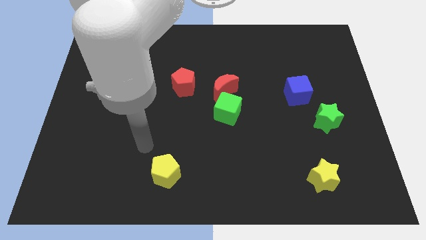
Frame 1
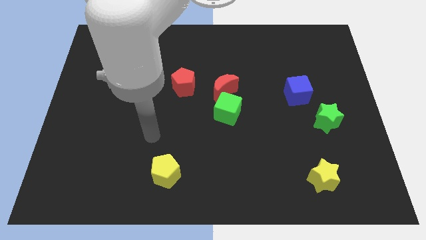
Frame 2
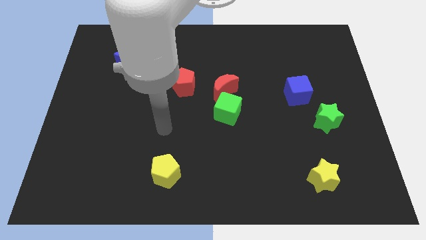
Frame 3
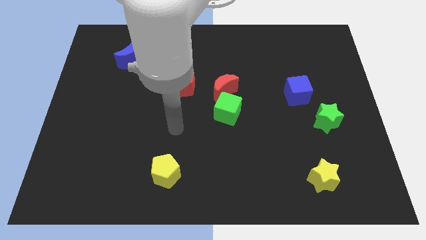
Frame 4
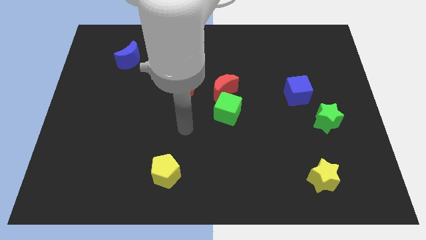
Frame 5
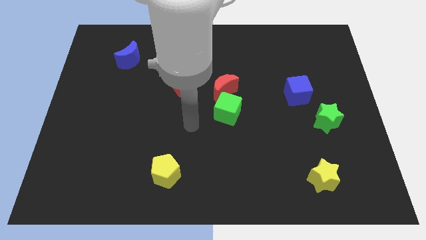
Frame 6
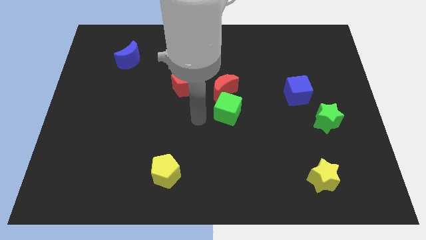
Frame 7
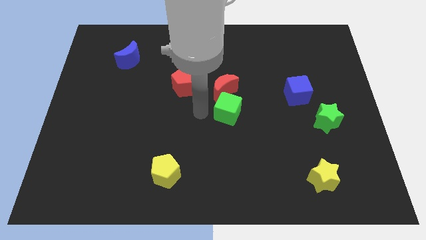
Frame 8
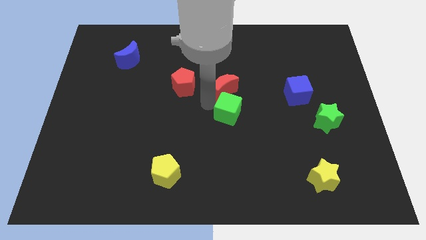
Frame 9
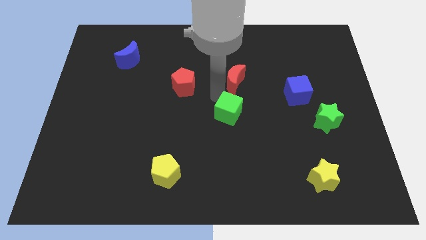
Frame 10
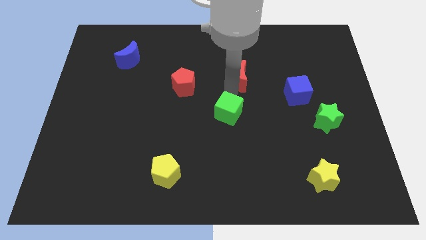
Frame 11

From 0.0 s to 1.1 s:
separate the green cube from the red moon

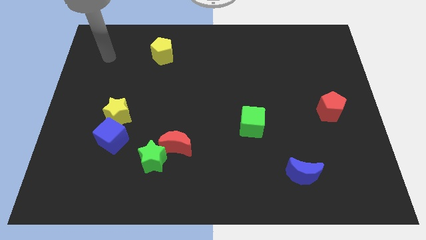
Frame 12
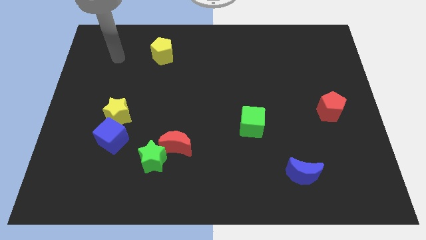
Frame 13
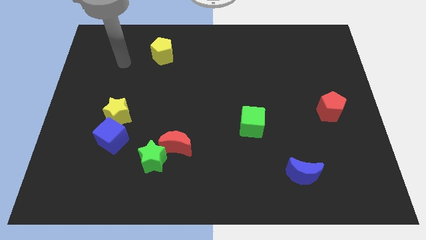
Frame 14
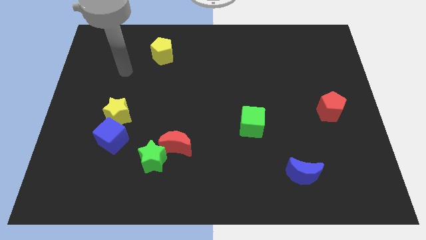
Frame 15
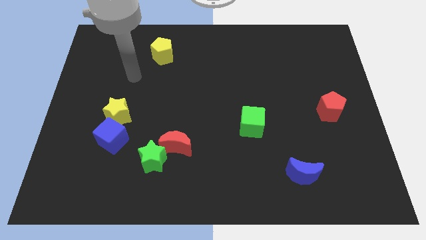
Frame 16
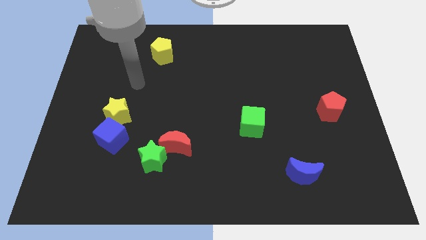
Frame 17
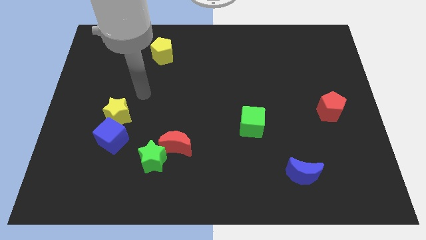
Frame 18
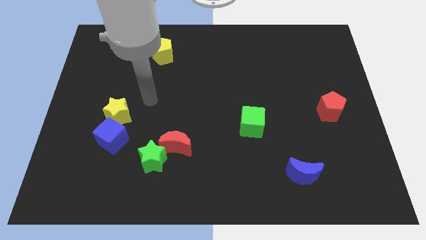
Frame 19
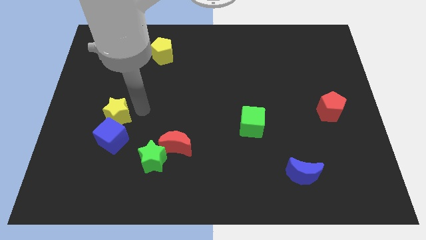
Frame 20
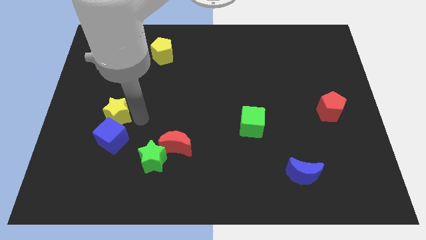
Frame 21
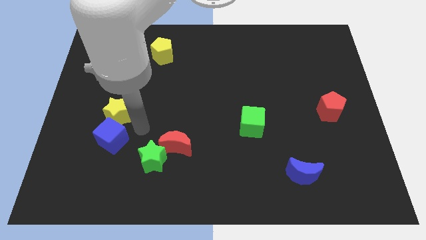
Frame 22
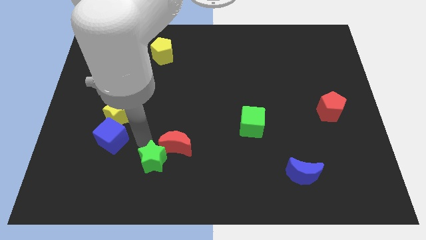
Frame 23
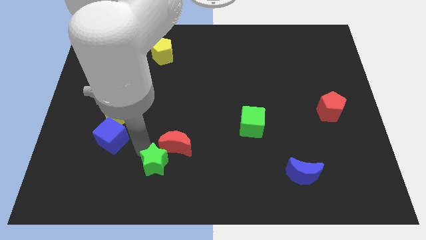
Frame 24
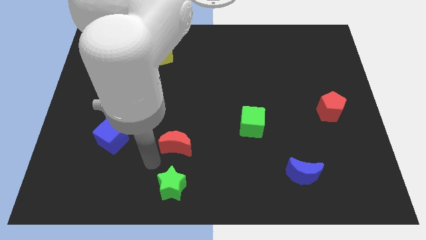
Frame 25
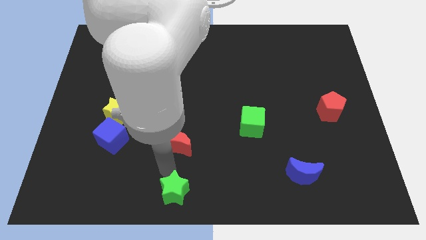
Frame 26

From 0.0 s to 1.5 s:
pull the red moon apart from the green star

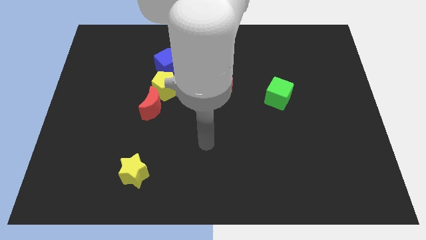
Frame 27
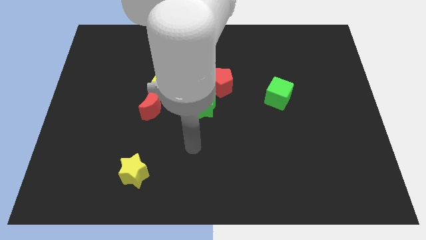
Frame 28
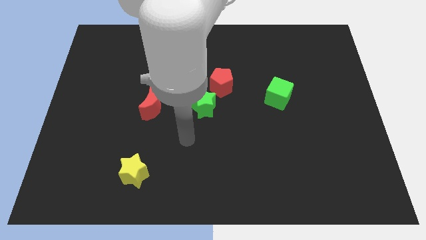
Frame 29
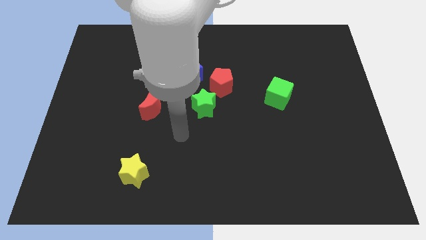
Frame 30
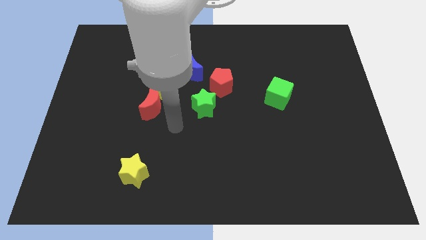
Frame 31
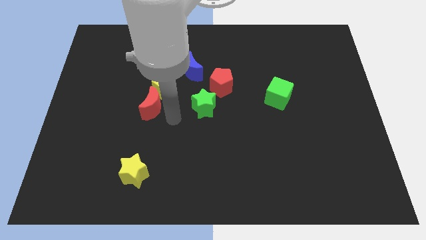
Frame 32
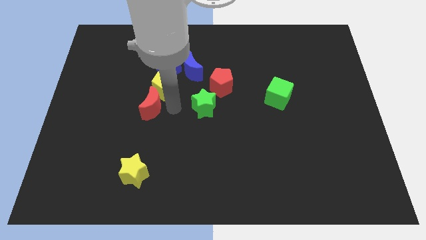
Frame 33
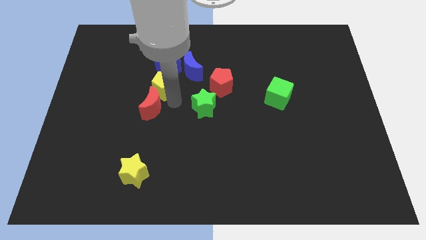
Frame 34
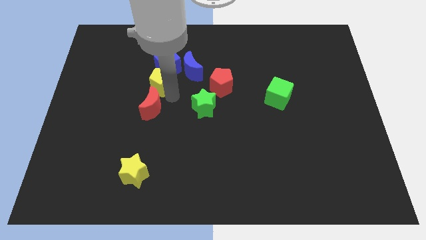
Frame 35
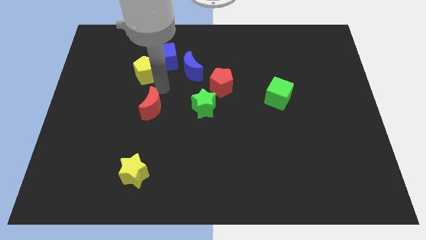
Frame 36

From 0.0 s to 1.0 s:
separate the red moon from the yellow pentagon

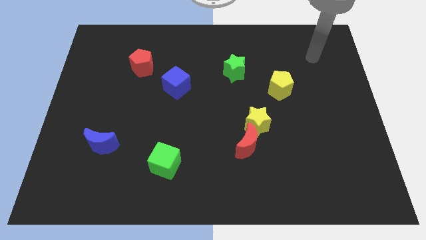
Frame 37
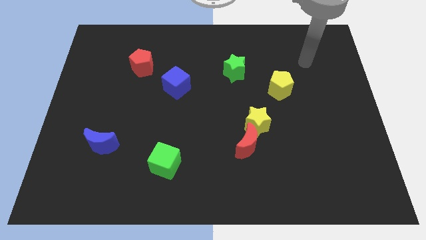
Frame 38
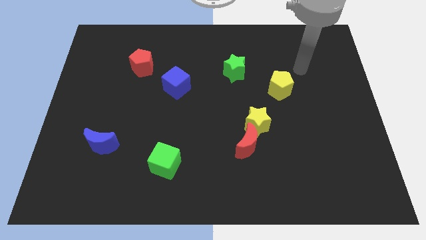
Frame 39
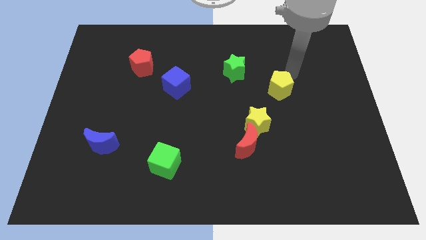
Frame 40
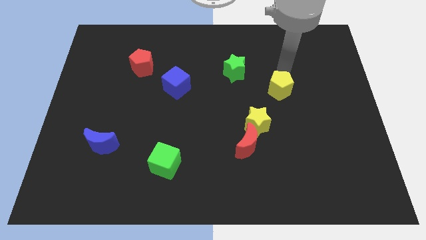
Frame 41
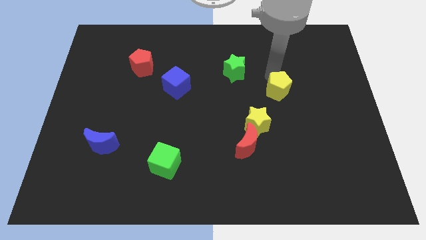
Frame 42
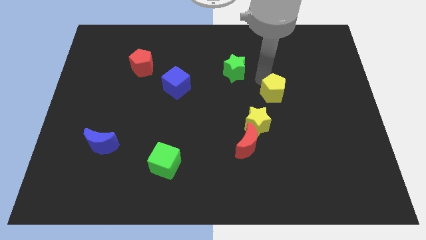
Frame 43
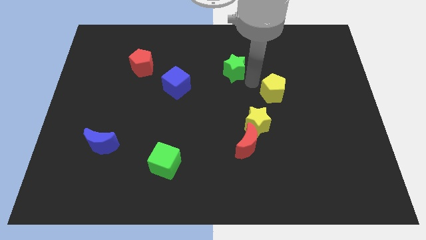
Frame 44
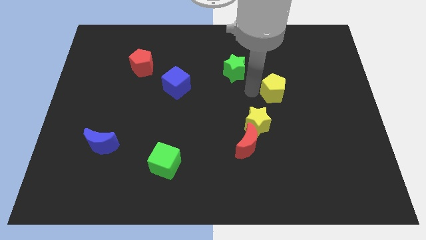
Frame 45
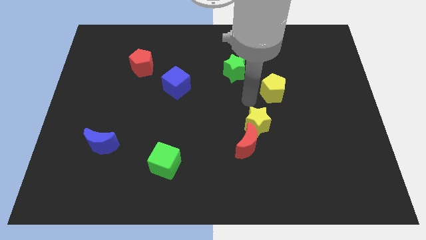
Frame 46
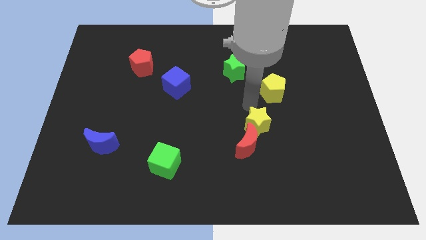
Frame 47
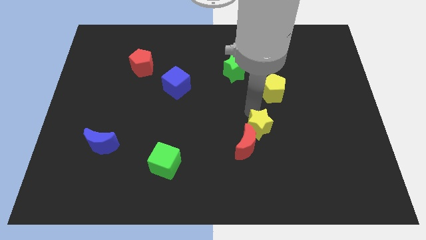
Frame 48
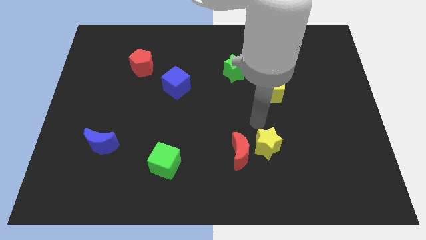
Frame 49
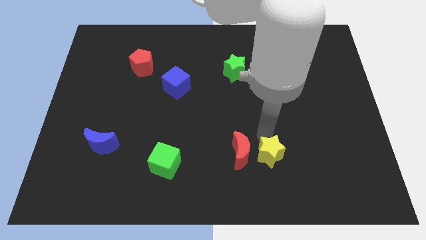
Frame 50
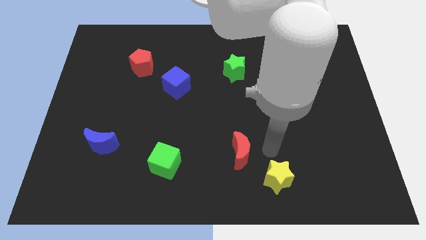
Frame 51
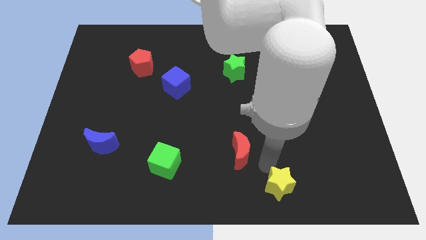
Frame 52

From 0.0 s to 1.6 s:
pull the red moon apart from the yellow star

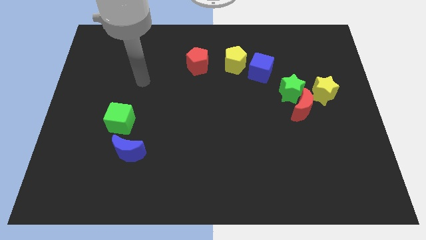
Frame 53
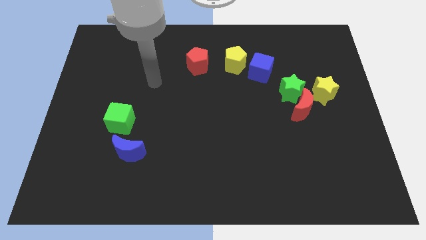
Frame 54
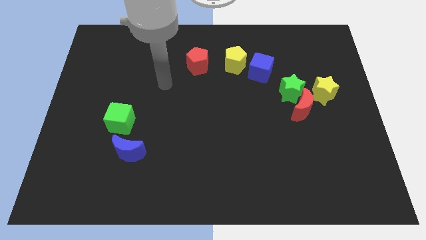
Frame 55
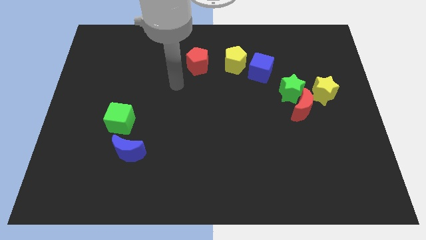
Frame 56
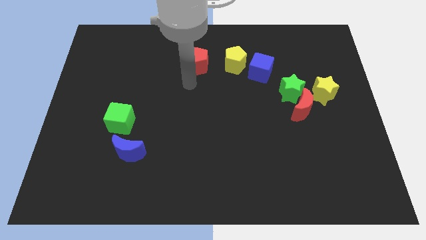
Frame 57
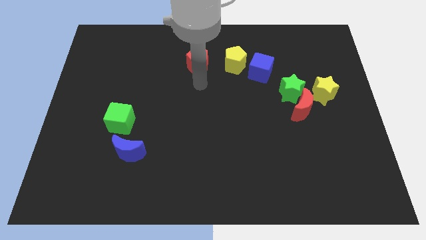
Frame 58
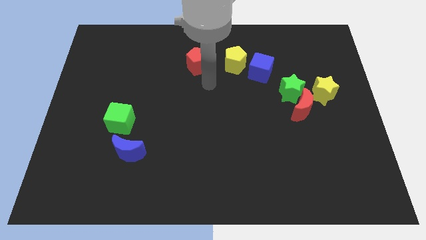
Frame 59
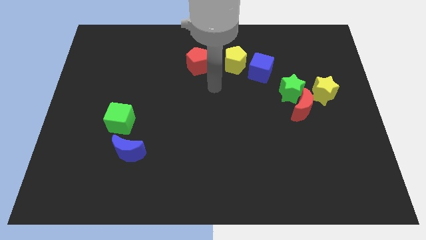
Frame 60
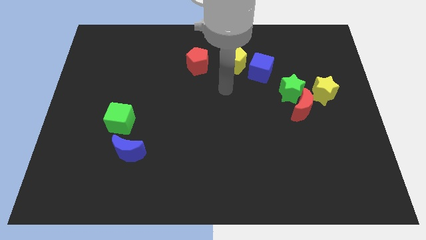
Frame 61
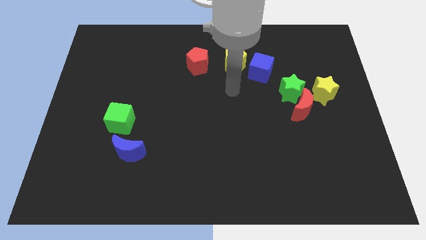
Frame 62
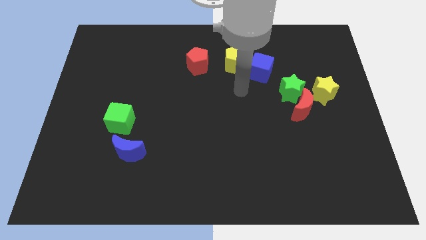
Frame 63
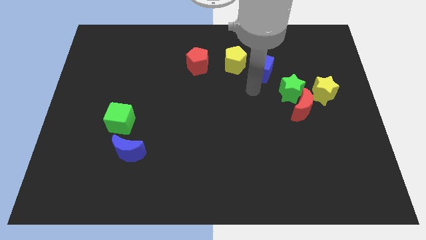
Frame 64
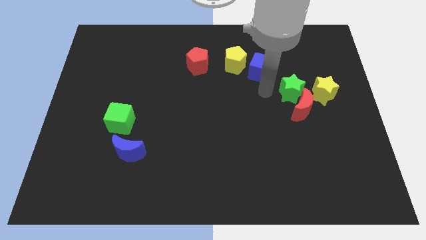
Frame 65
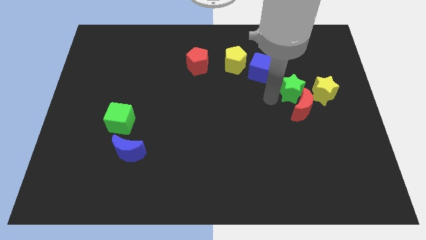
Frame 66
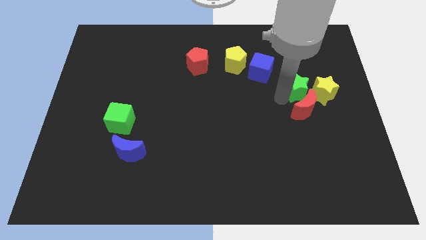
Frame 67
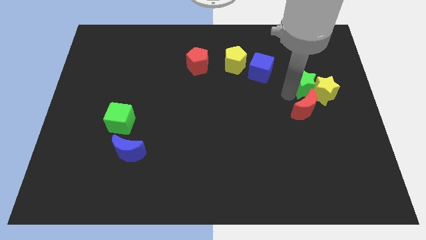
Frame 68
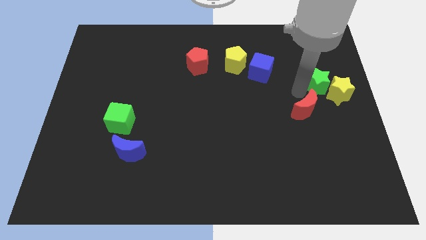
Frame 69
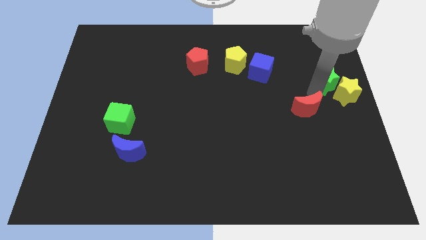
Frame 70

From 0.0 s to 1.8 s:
pull the red moon apart from the green star and yellow star

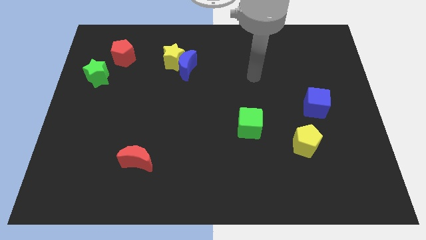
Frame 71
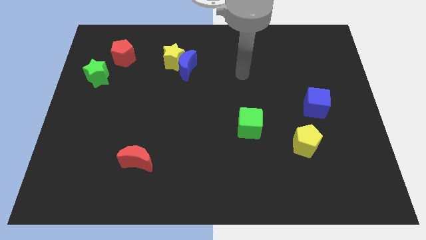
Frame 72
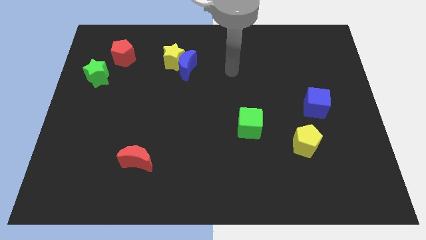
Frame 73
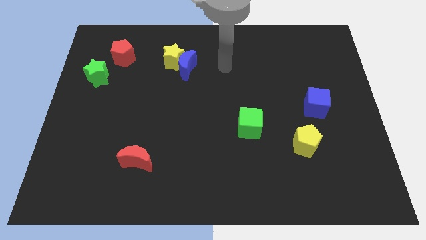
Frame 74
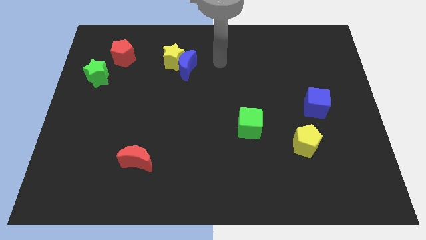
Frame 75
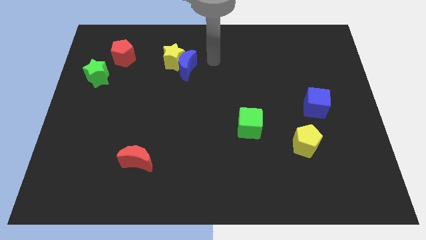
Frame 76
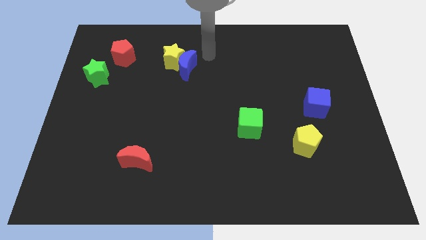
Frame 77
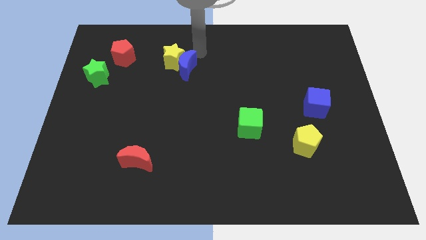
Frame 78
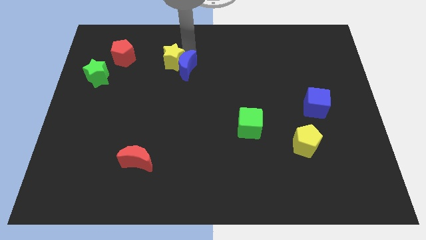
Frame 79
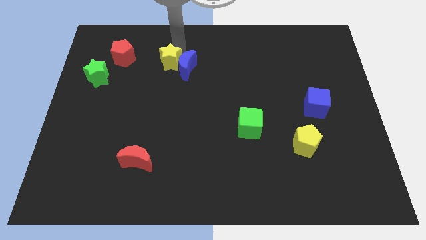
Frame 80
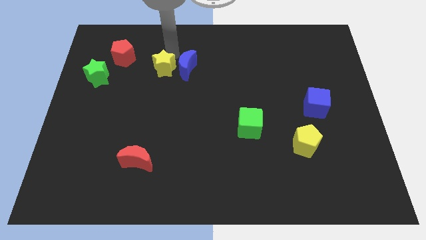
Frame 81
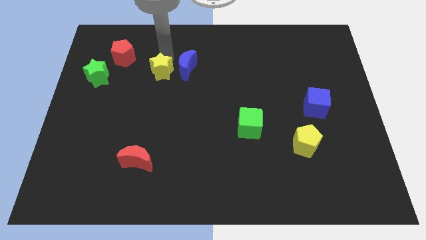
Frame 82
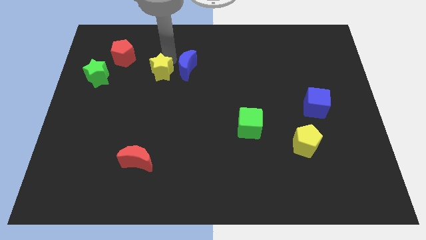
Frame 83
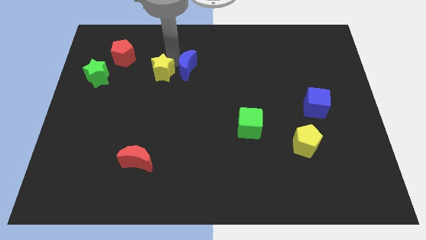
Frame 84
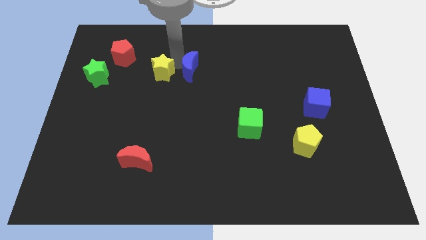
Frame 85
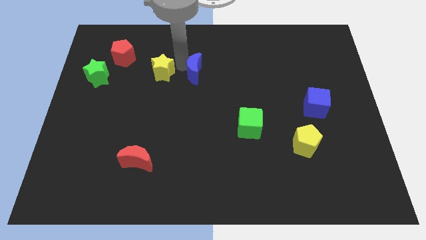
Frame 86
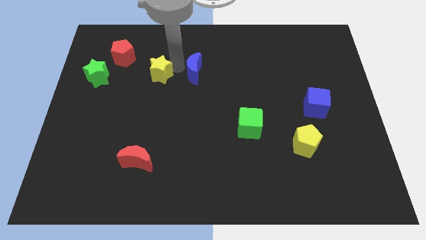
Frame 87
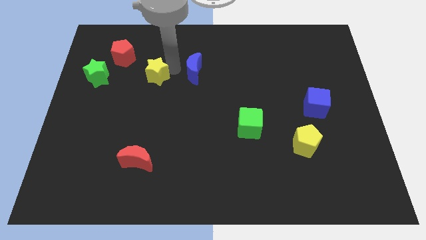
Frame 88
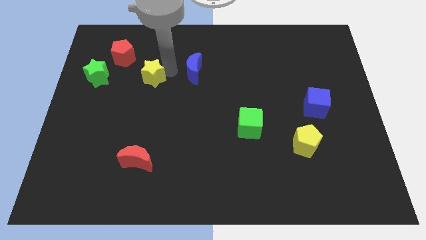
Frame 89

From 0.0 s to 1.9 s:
pull the blue moon apart from the yellow star

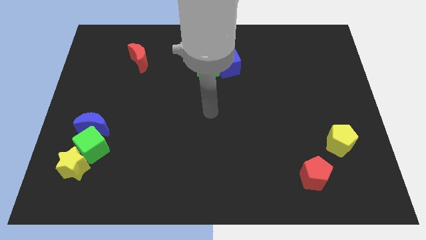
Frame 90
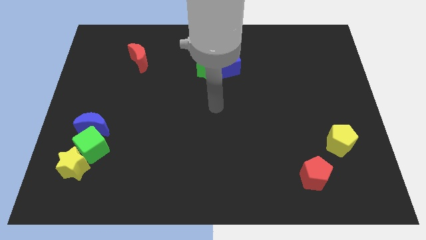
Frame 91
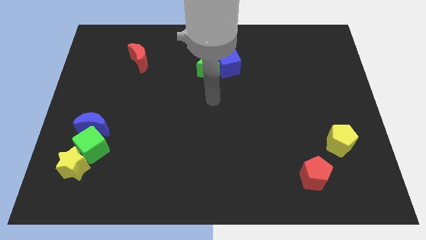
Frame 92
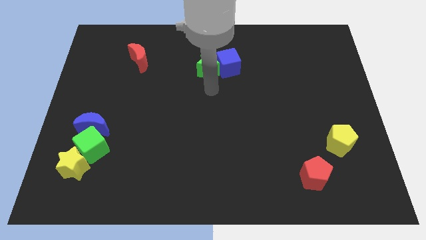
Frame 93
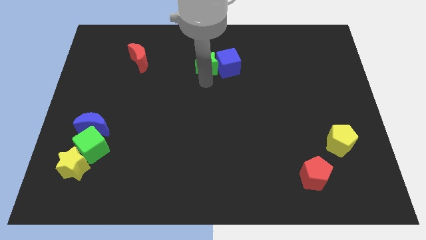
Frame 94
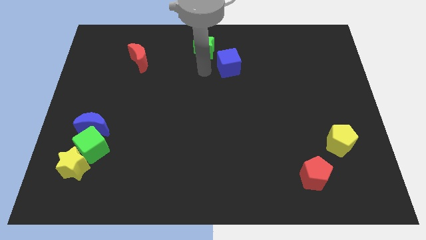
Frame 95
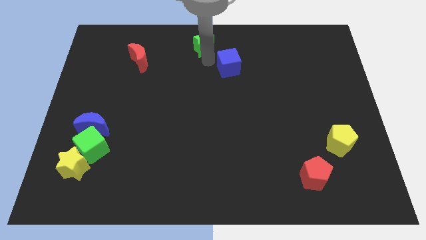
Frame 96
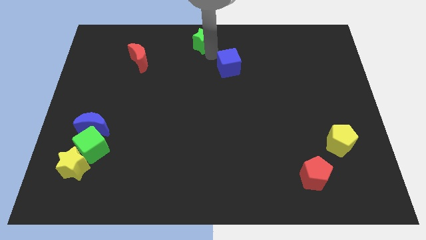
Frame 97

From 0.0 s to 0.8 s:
pull the blue cube apart from the green star
